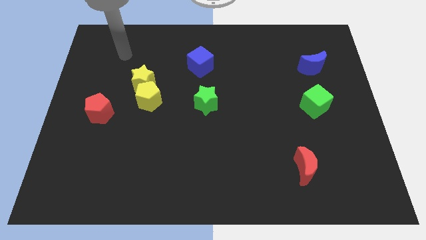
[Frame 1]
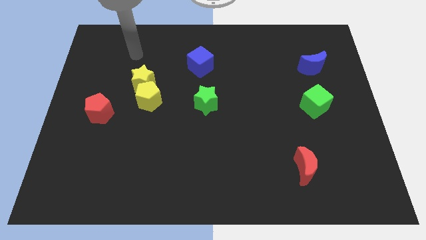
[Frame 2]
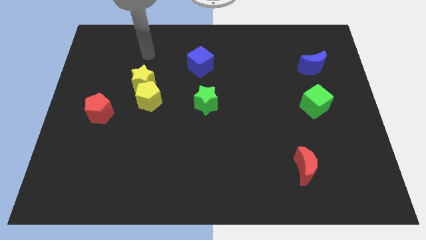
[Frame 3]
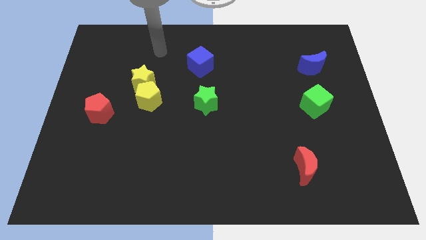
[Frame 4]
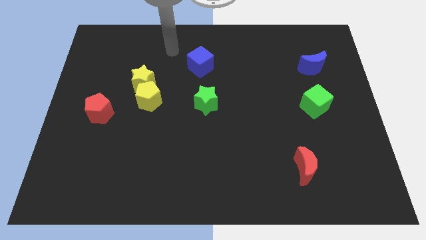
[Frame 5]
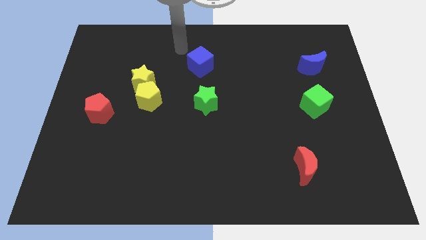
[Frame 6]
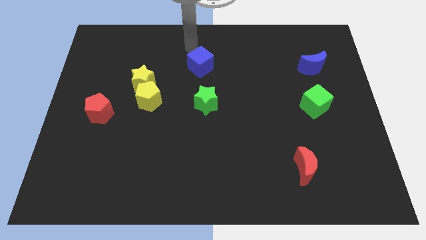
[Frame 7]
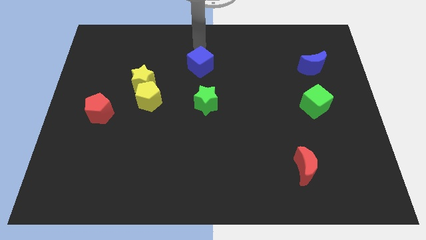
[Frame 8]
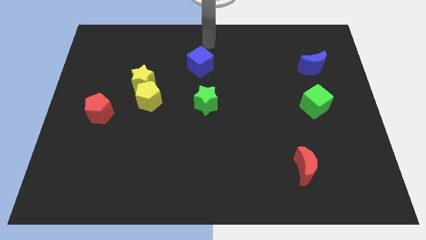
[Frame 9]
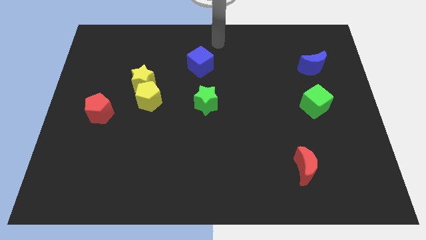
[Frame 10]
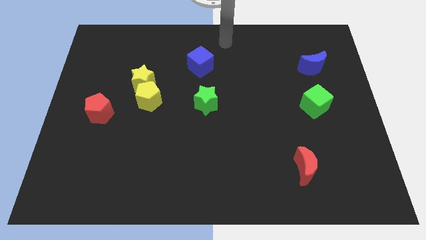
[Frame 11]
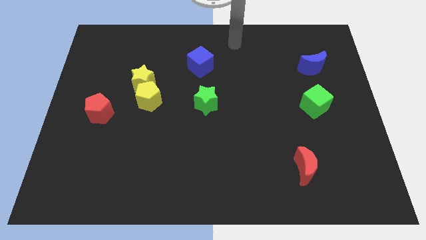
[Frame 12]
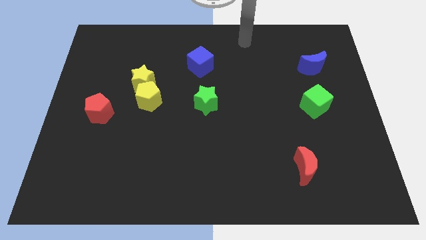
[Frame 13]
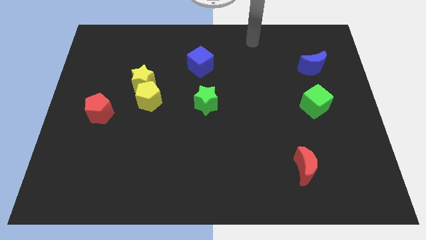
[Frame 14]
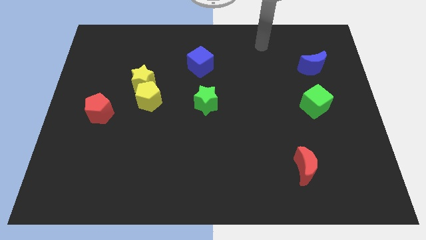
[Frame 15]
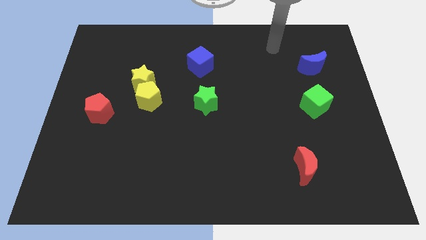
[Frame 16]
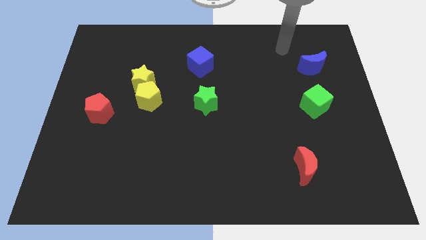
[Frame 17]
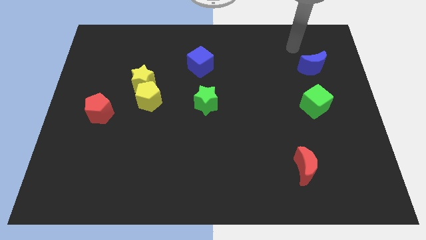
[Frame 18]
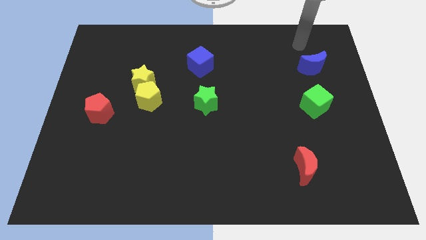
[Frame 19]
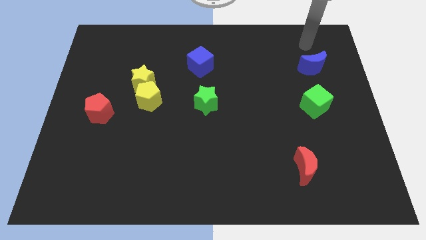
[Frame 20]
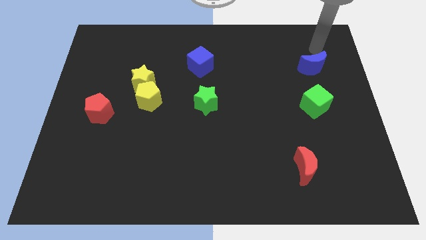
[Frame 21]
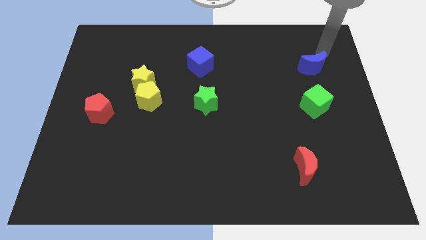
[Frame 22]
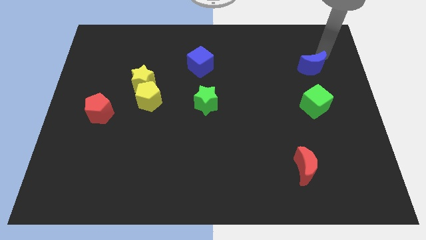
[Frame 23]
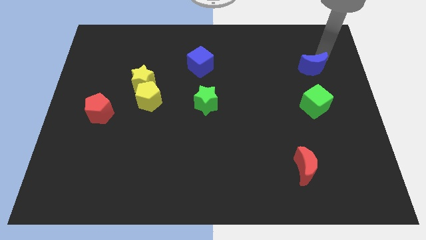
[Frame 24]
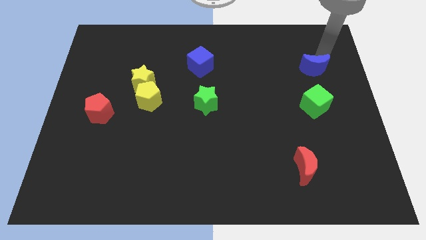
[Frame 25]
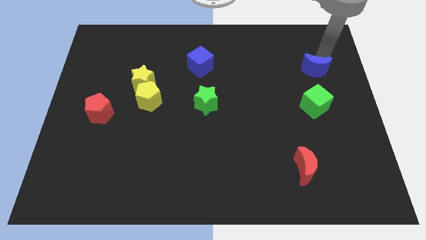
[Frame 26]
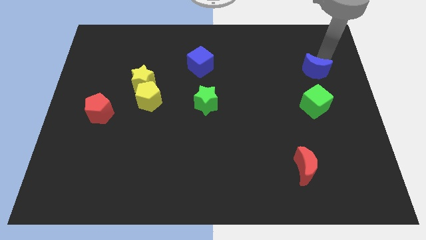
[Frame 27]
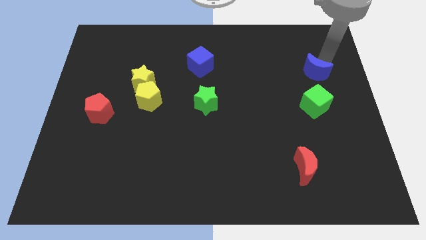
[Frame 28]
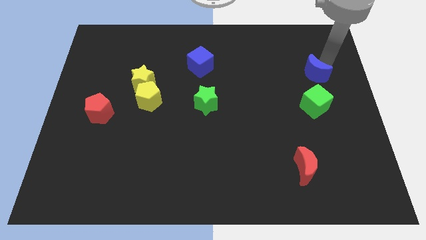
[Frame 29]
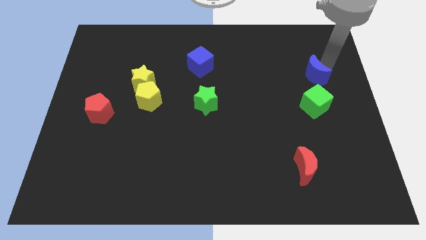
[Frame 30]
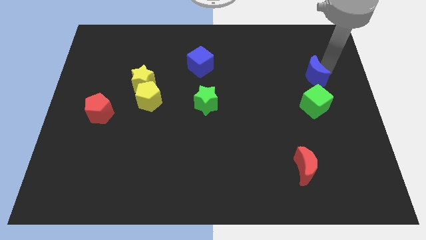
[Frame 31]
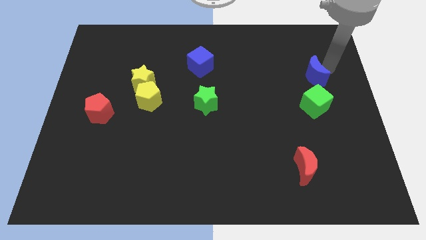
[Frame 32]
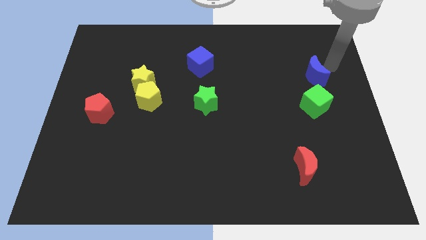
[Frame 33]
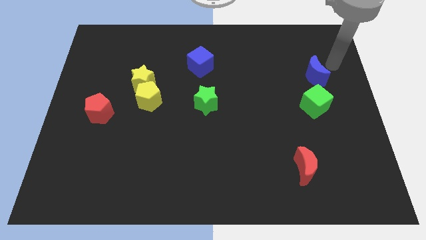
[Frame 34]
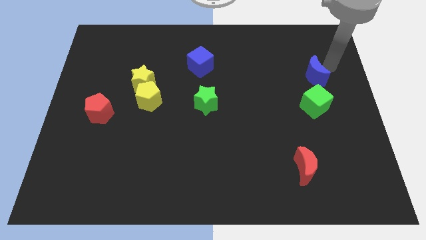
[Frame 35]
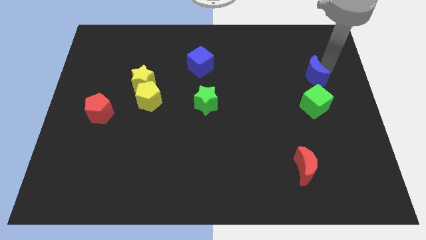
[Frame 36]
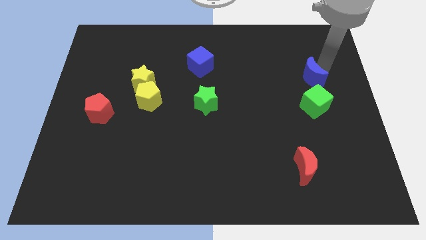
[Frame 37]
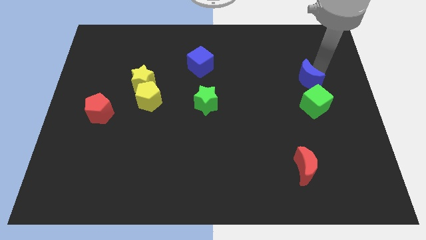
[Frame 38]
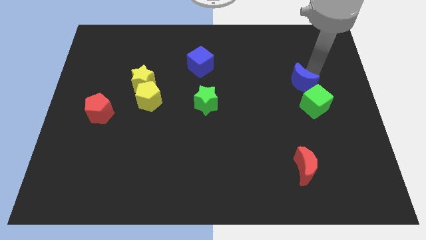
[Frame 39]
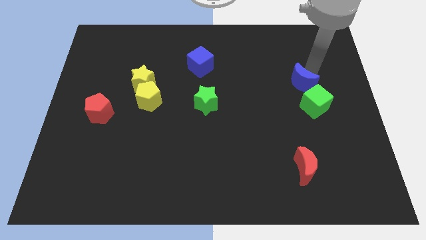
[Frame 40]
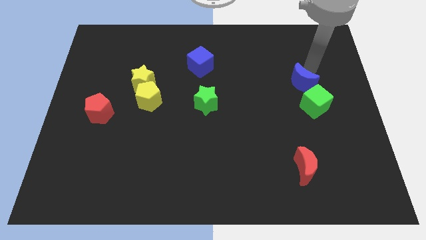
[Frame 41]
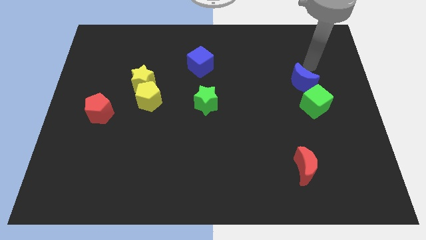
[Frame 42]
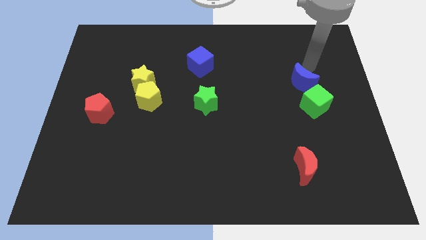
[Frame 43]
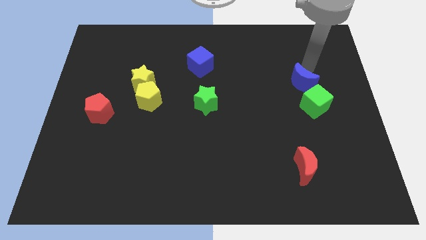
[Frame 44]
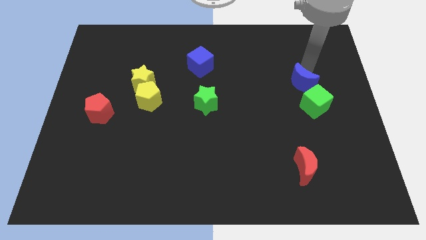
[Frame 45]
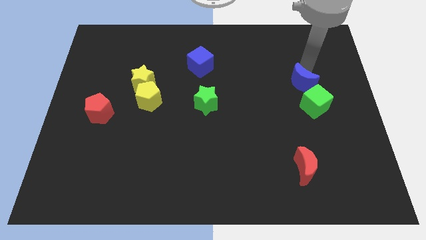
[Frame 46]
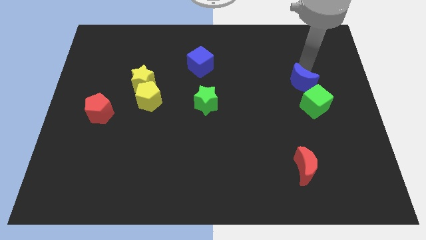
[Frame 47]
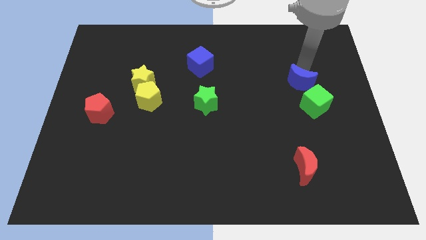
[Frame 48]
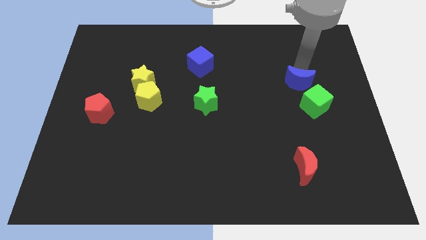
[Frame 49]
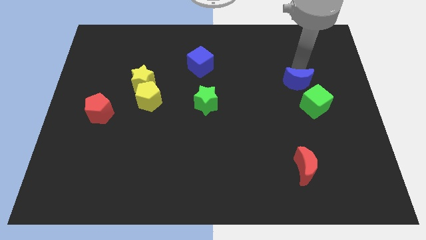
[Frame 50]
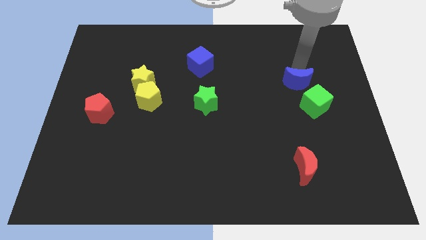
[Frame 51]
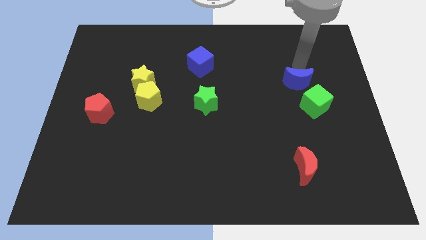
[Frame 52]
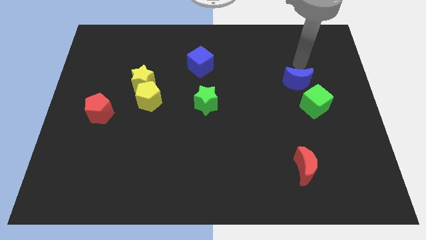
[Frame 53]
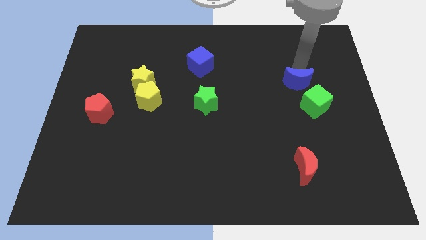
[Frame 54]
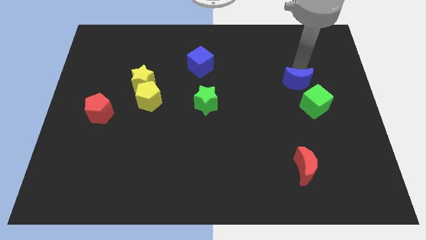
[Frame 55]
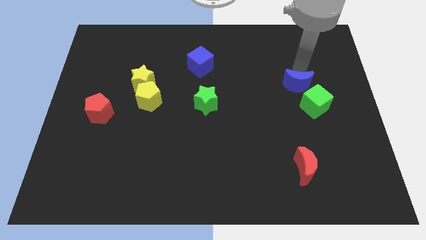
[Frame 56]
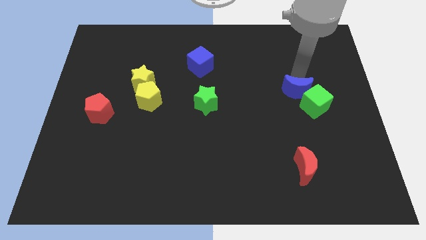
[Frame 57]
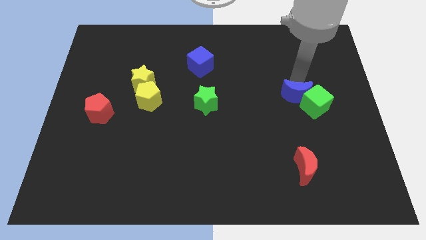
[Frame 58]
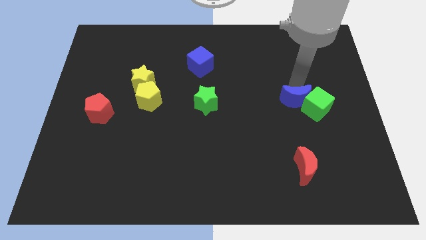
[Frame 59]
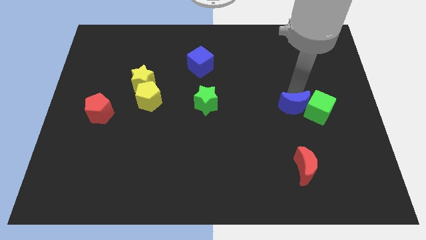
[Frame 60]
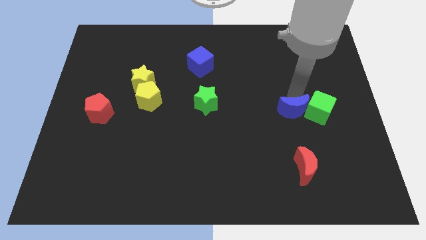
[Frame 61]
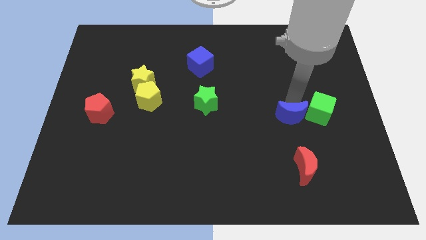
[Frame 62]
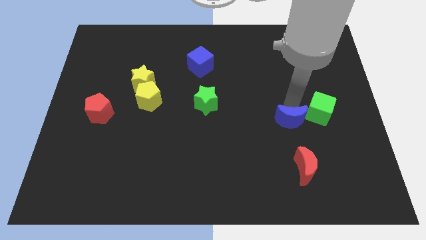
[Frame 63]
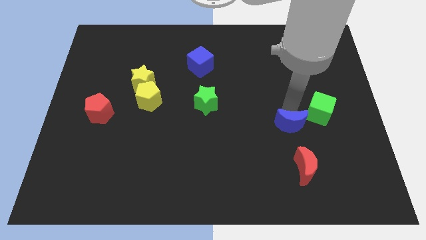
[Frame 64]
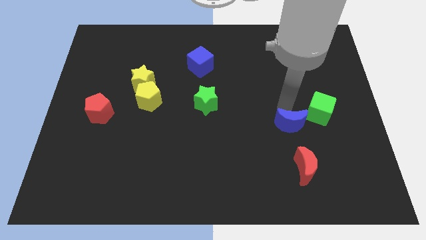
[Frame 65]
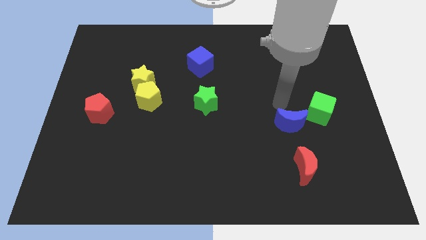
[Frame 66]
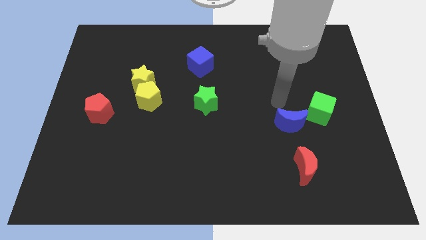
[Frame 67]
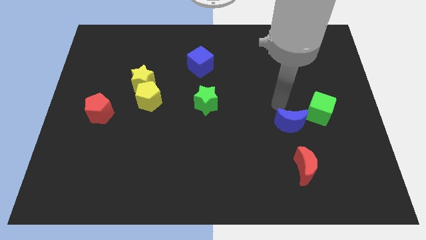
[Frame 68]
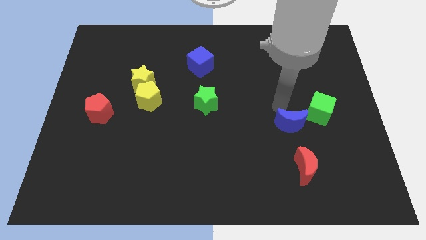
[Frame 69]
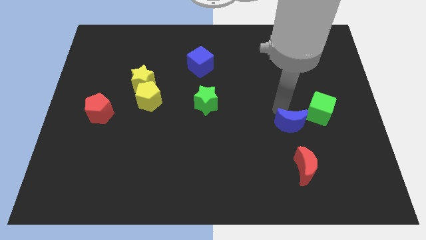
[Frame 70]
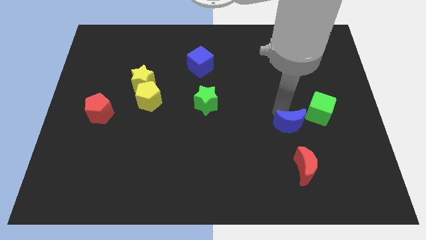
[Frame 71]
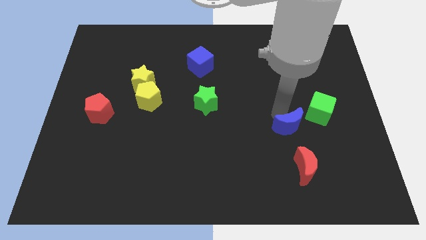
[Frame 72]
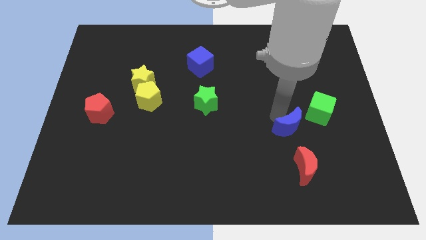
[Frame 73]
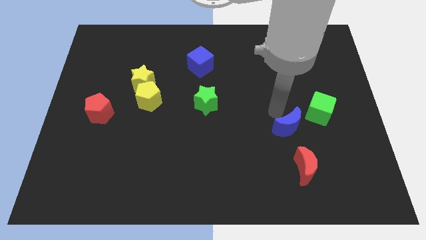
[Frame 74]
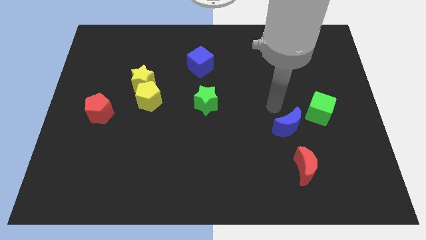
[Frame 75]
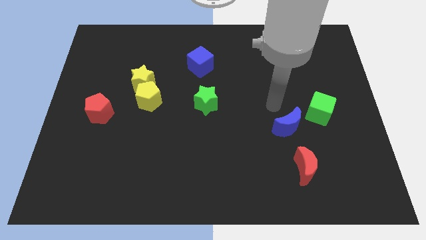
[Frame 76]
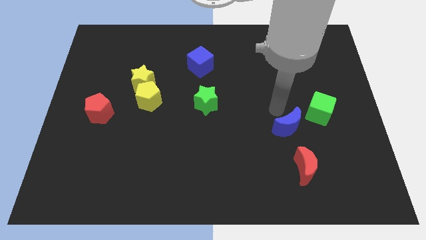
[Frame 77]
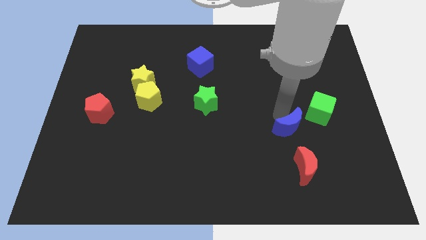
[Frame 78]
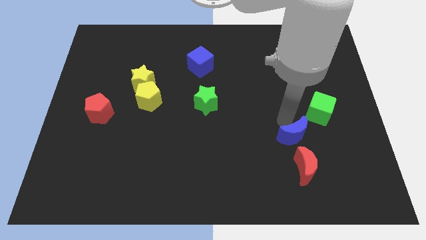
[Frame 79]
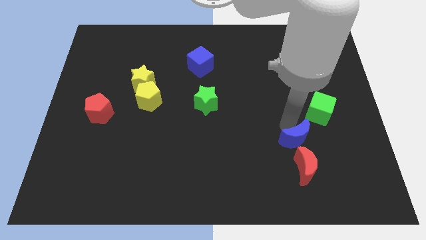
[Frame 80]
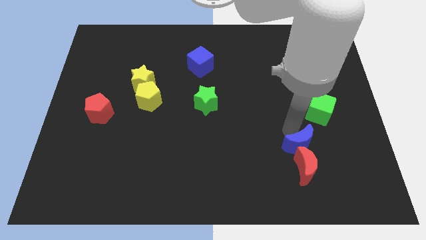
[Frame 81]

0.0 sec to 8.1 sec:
push the blue moon to the red moon
